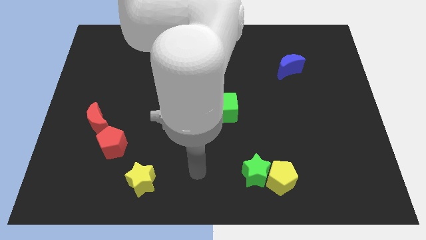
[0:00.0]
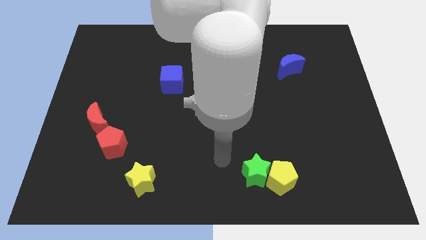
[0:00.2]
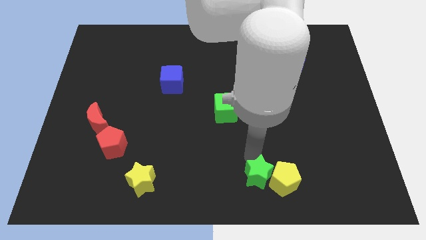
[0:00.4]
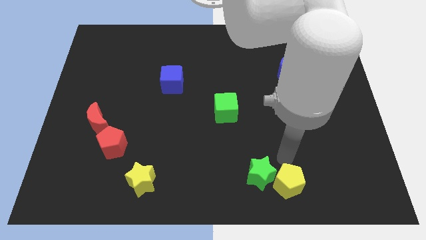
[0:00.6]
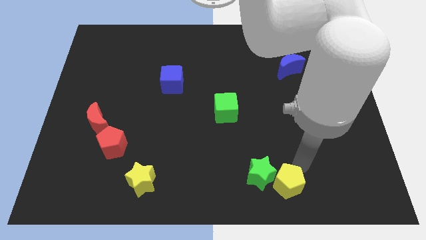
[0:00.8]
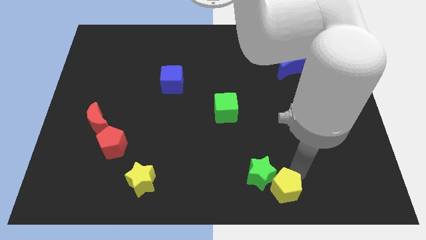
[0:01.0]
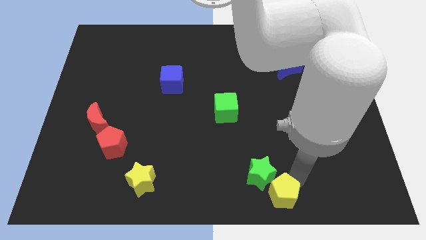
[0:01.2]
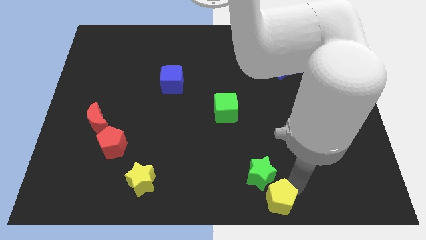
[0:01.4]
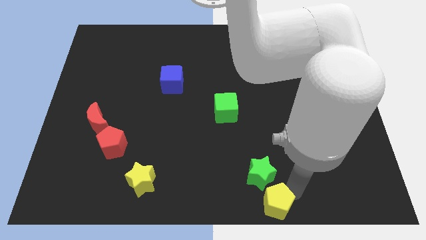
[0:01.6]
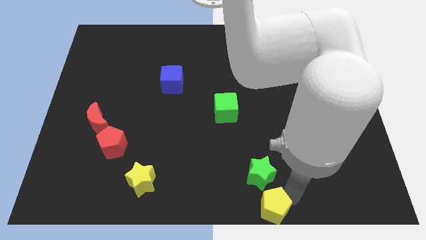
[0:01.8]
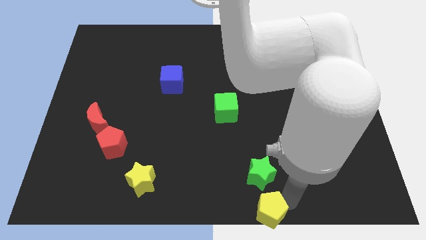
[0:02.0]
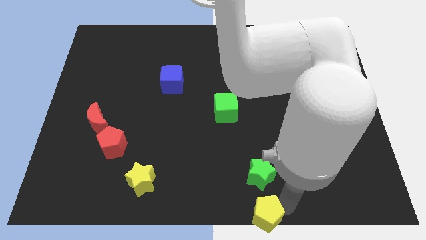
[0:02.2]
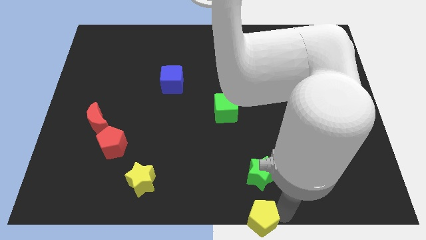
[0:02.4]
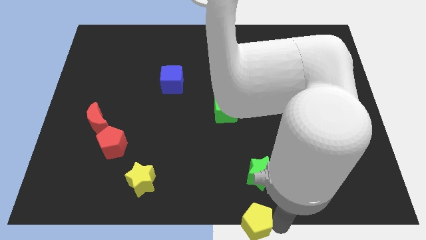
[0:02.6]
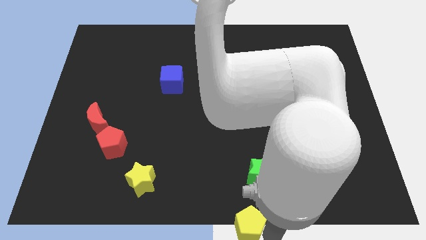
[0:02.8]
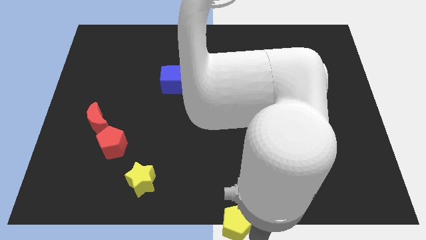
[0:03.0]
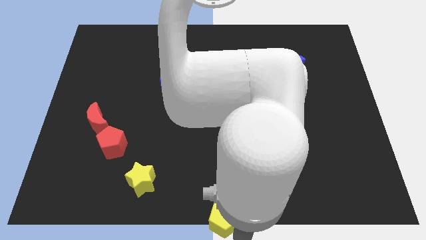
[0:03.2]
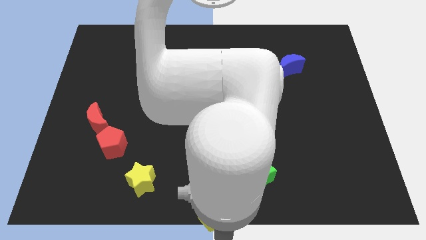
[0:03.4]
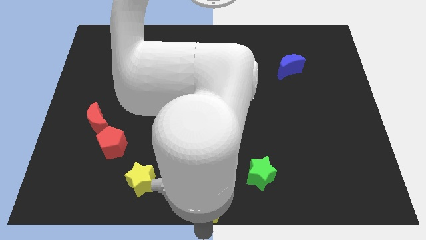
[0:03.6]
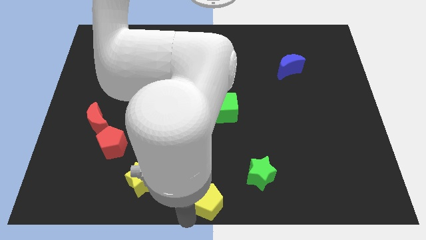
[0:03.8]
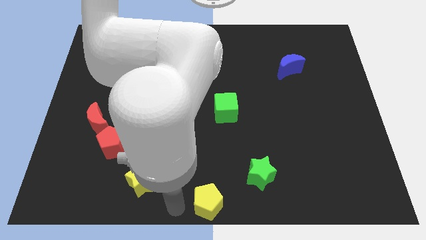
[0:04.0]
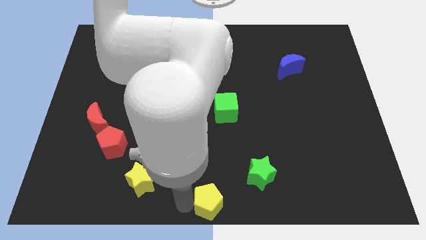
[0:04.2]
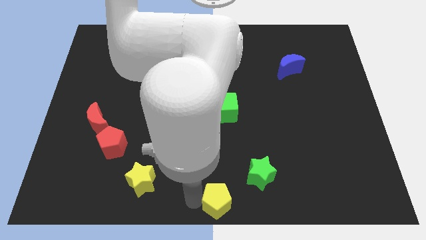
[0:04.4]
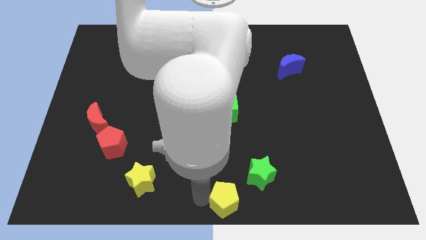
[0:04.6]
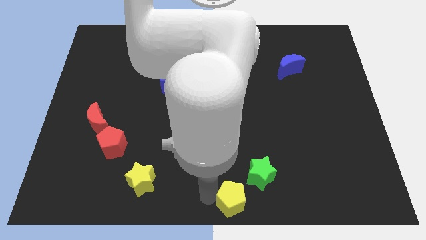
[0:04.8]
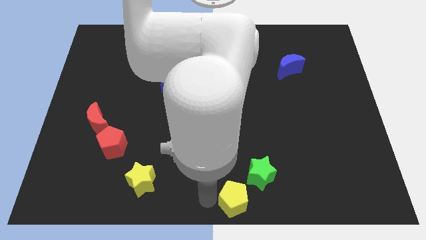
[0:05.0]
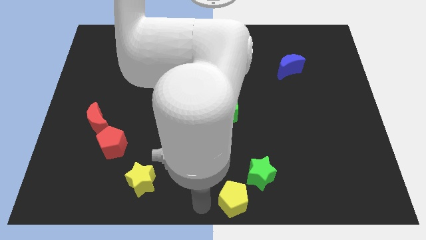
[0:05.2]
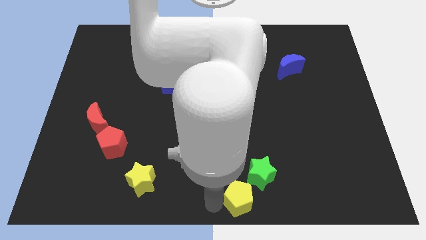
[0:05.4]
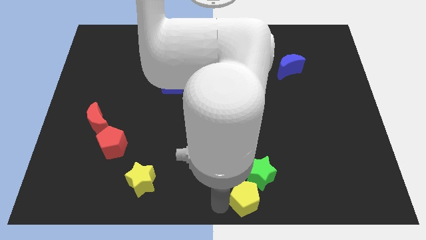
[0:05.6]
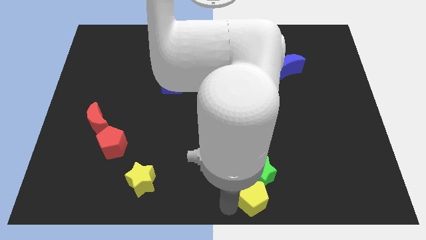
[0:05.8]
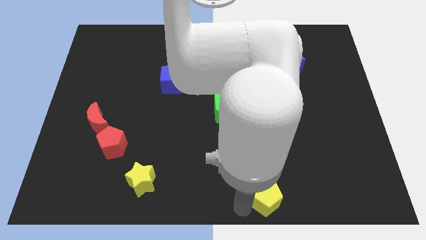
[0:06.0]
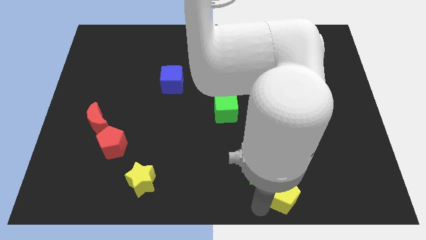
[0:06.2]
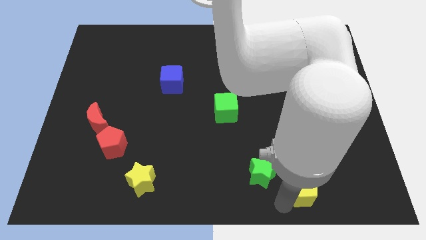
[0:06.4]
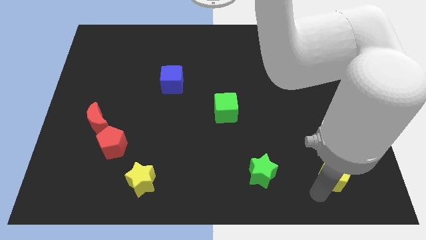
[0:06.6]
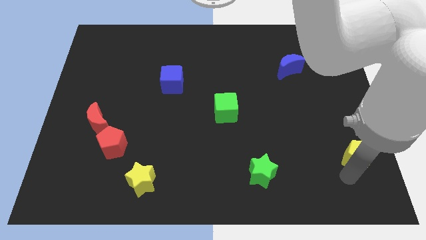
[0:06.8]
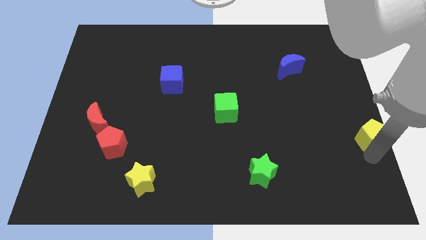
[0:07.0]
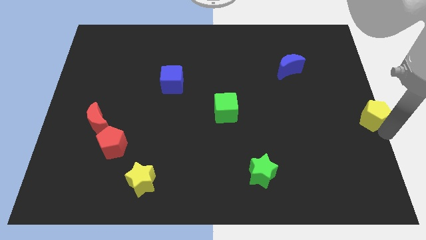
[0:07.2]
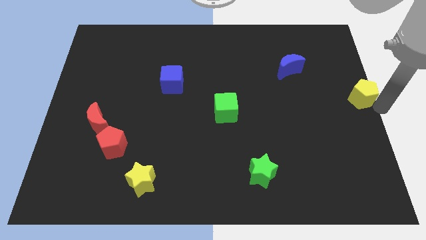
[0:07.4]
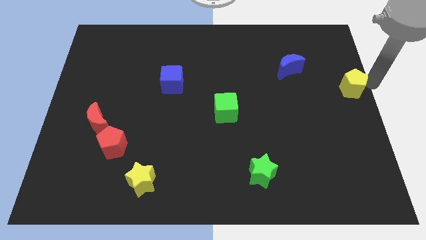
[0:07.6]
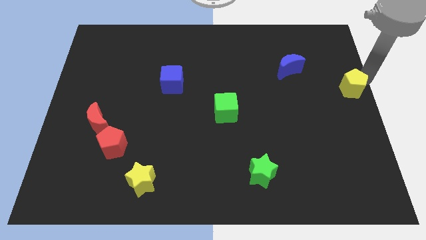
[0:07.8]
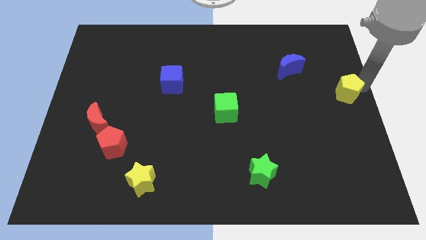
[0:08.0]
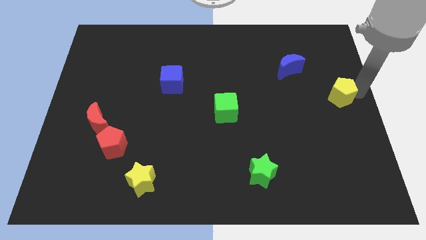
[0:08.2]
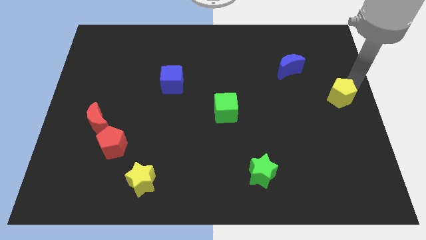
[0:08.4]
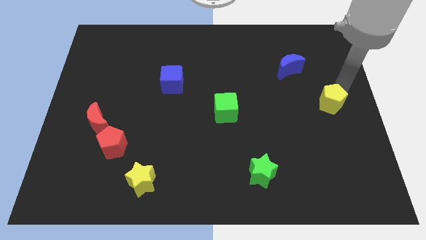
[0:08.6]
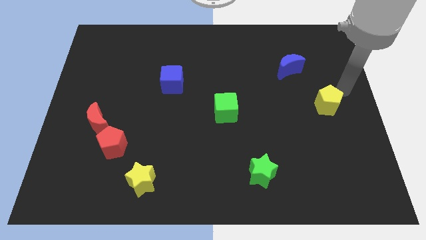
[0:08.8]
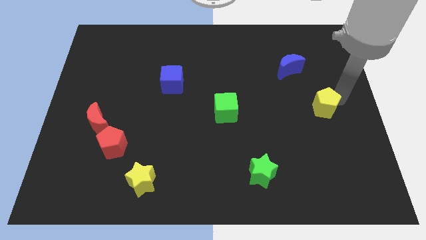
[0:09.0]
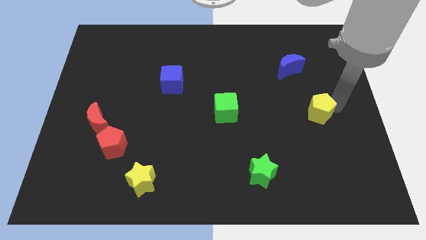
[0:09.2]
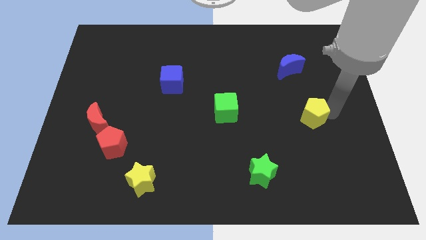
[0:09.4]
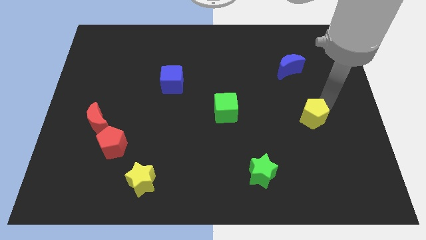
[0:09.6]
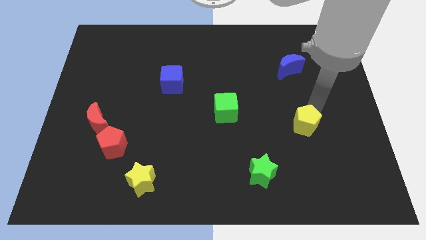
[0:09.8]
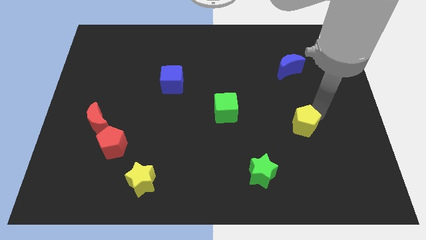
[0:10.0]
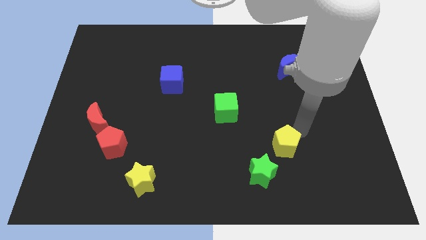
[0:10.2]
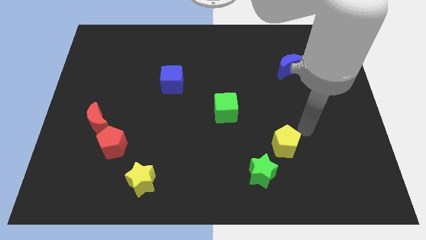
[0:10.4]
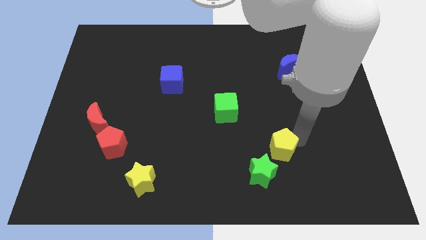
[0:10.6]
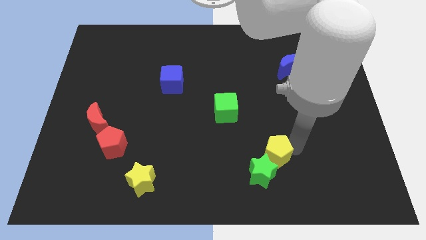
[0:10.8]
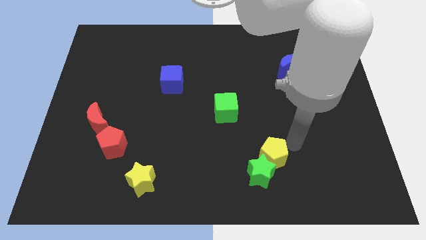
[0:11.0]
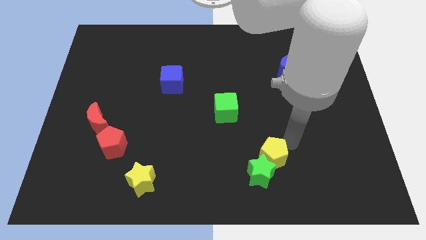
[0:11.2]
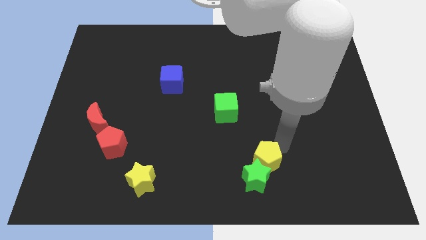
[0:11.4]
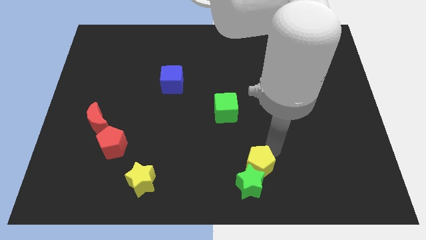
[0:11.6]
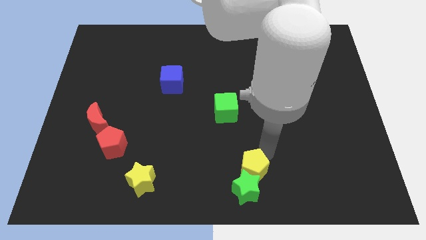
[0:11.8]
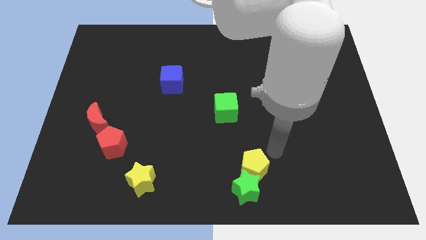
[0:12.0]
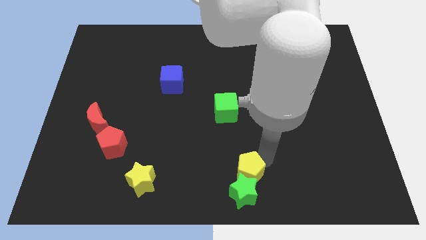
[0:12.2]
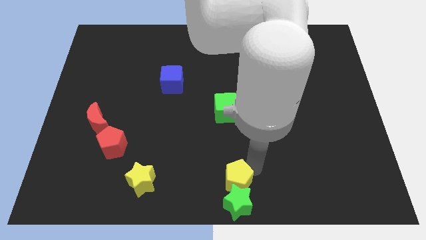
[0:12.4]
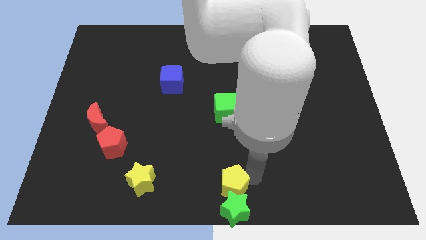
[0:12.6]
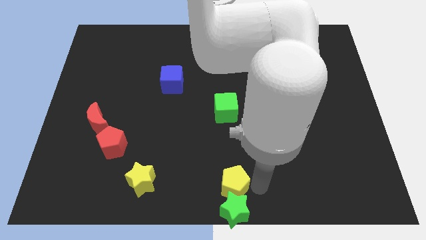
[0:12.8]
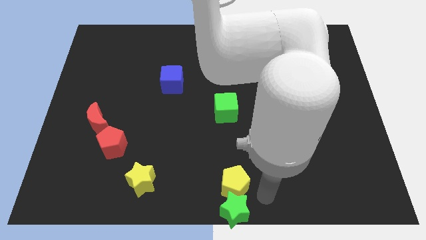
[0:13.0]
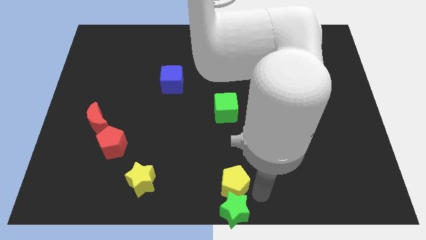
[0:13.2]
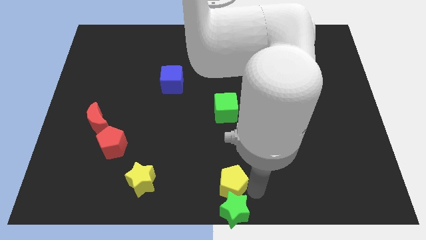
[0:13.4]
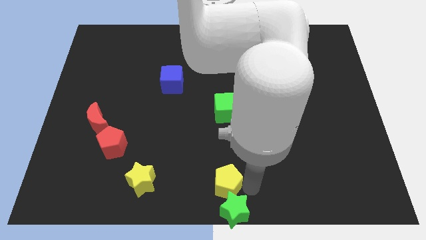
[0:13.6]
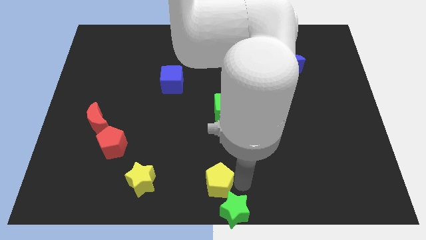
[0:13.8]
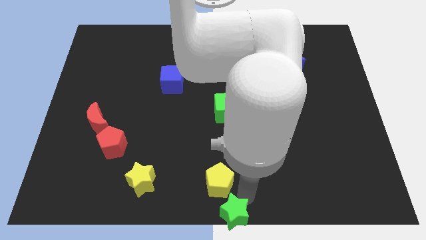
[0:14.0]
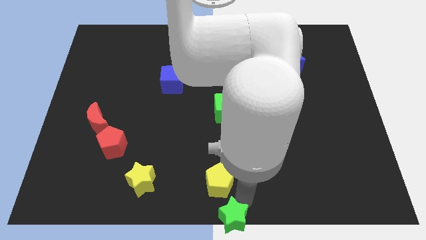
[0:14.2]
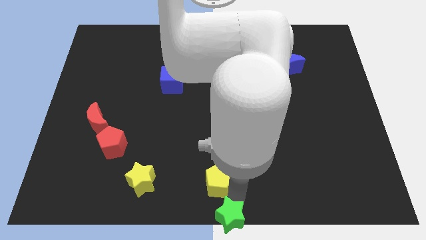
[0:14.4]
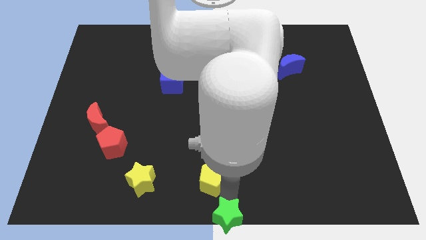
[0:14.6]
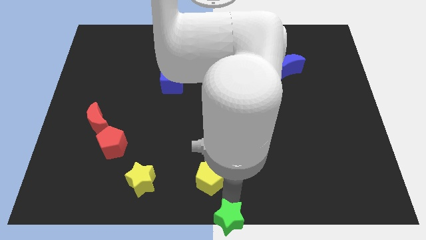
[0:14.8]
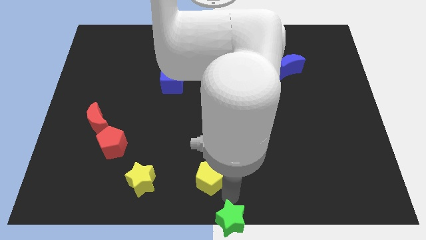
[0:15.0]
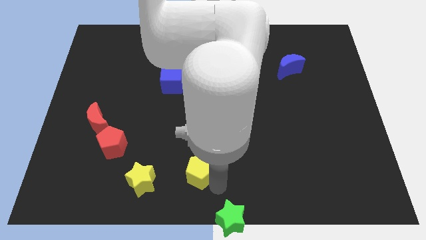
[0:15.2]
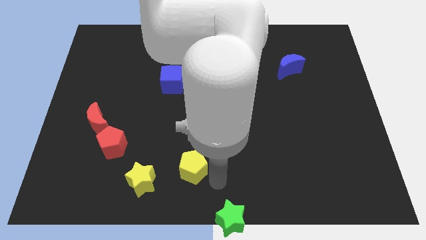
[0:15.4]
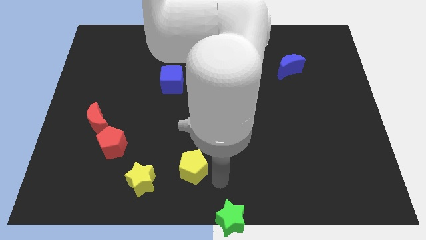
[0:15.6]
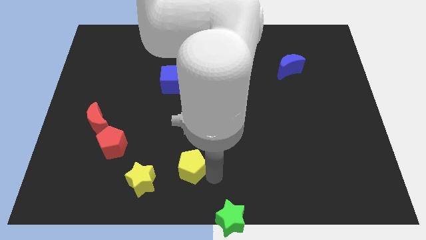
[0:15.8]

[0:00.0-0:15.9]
slide the yellow pentagon to the top right side of the yellow star

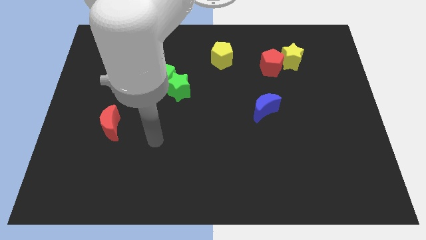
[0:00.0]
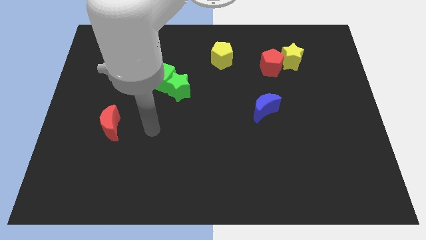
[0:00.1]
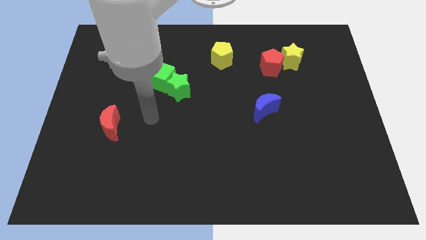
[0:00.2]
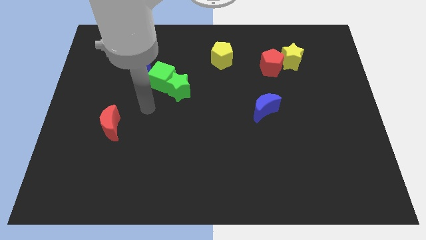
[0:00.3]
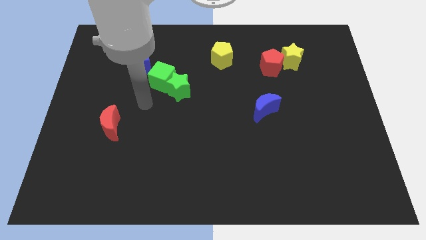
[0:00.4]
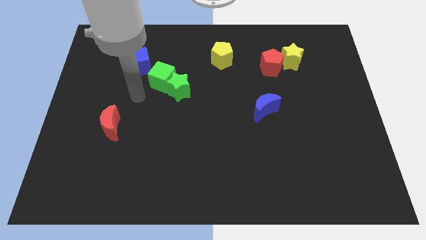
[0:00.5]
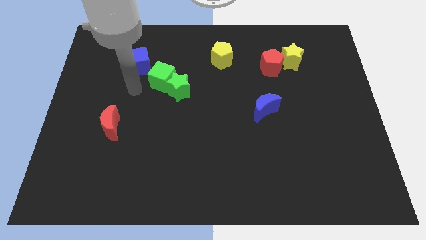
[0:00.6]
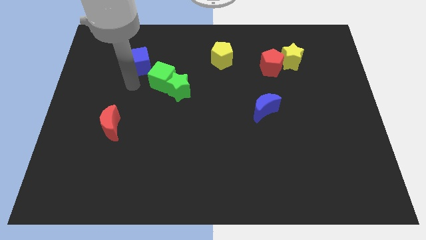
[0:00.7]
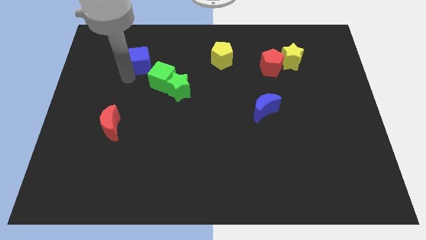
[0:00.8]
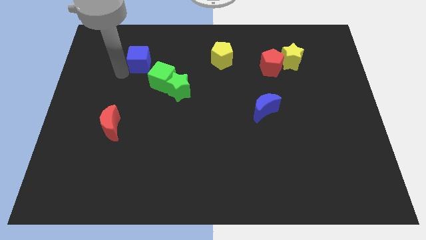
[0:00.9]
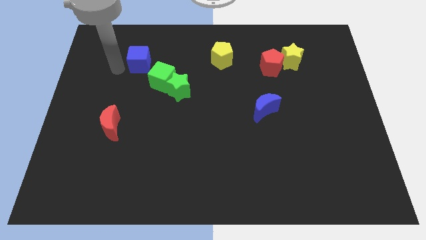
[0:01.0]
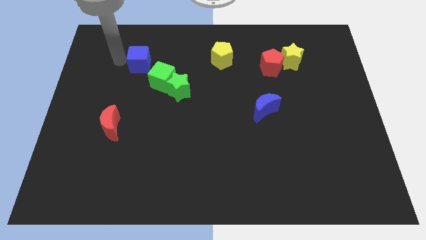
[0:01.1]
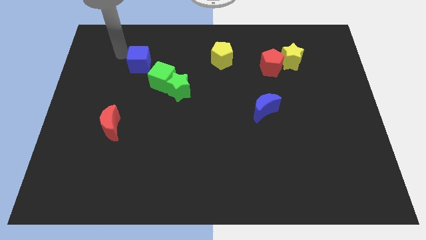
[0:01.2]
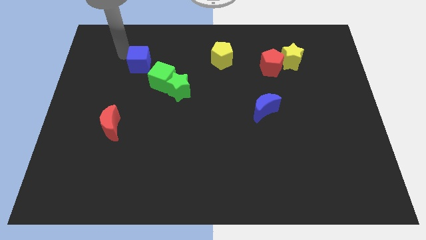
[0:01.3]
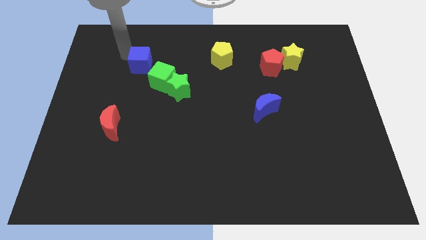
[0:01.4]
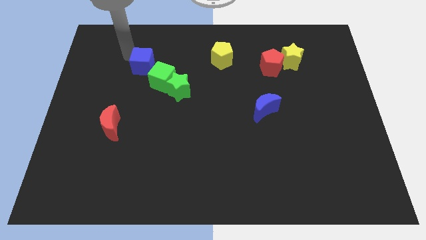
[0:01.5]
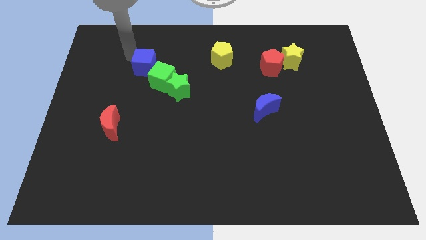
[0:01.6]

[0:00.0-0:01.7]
slide the blue cube to the top left of the green star
